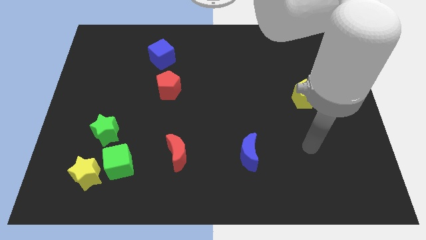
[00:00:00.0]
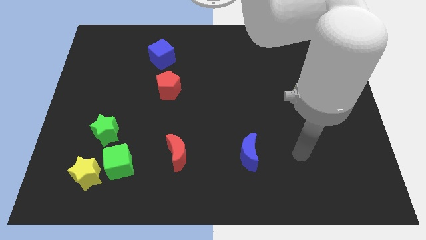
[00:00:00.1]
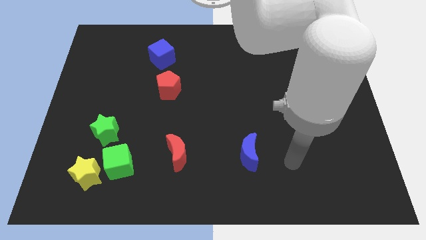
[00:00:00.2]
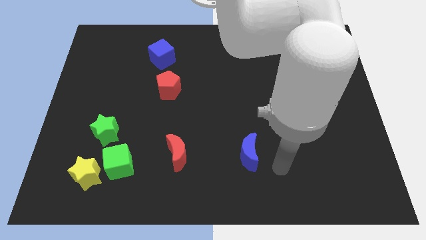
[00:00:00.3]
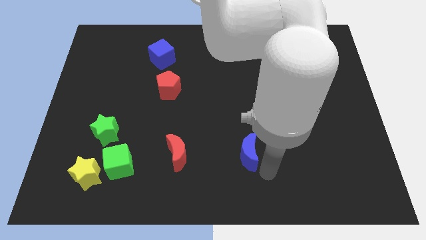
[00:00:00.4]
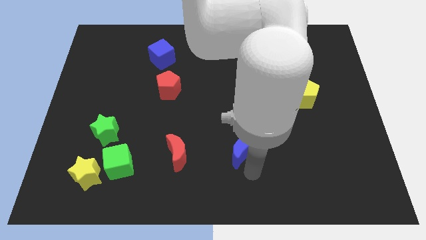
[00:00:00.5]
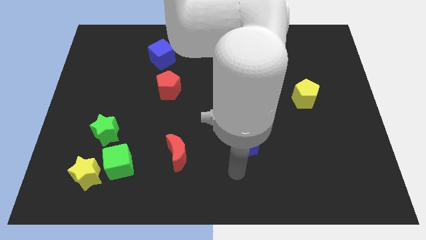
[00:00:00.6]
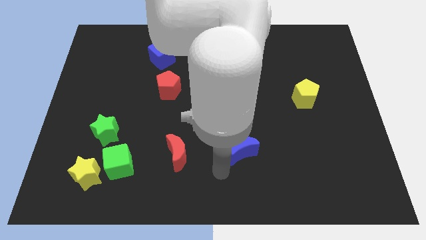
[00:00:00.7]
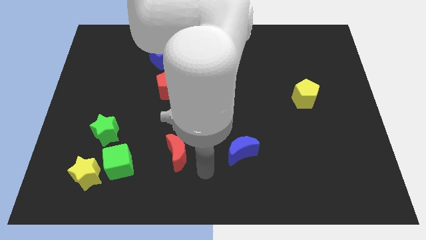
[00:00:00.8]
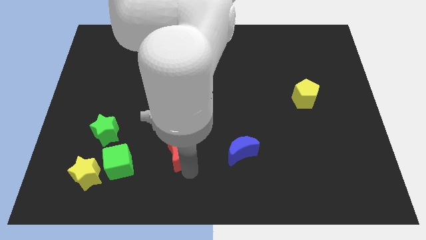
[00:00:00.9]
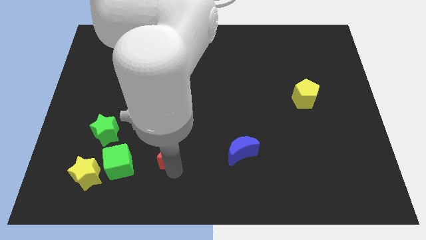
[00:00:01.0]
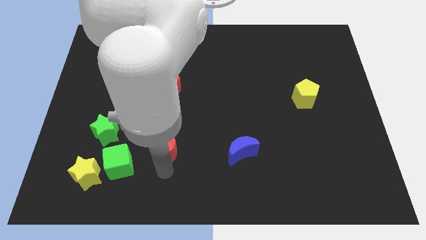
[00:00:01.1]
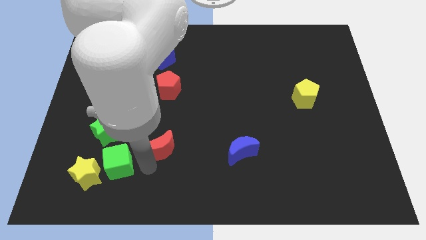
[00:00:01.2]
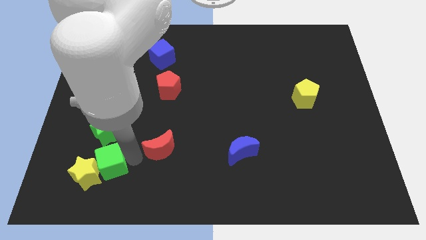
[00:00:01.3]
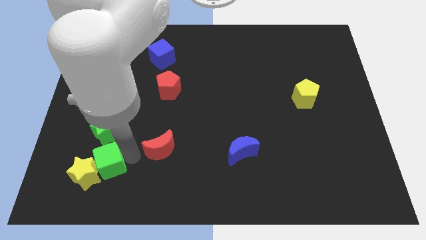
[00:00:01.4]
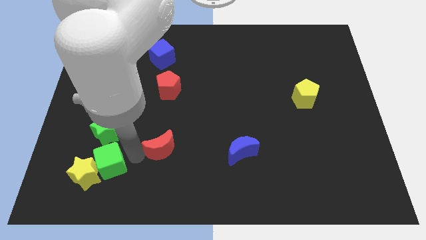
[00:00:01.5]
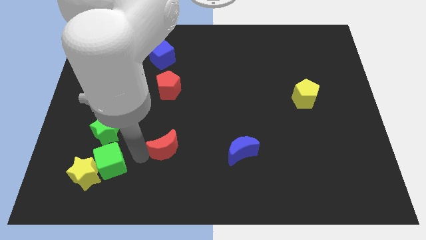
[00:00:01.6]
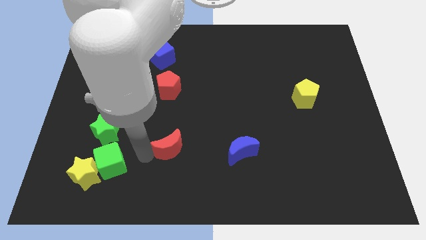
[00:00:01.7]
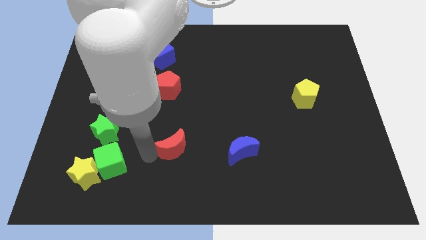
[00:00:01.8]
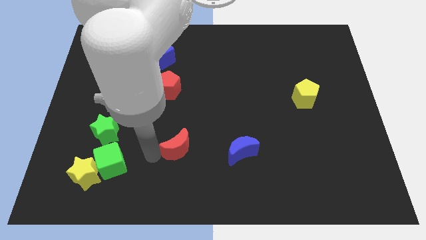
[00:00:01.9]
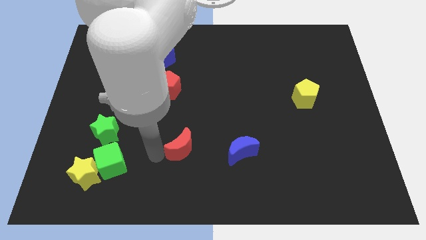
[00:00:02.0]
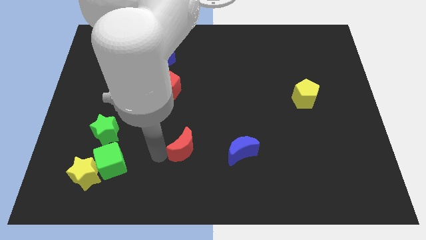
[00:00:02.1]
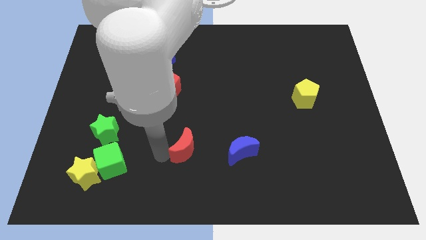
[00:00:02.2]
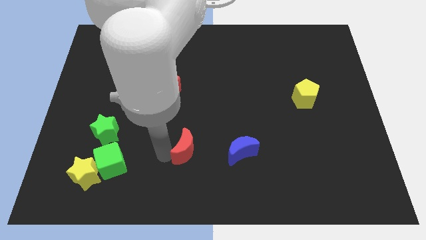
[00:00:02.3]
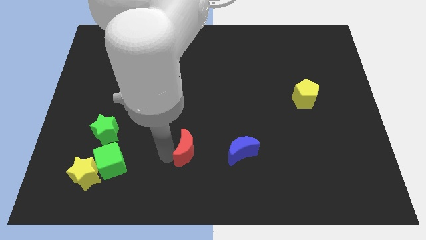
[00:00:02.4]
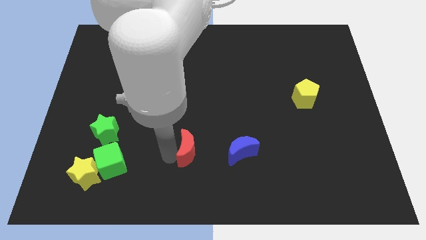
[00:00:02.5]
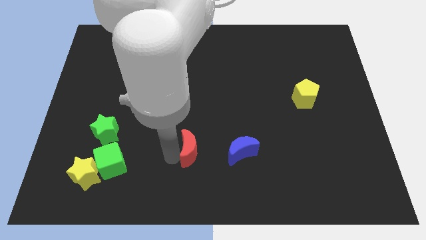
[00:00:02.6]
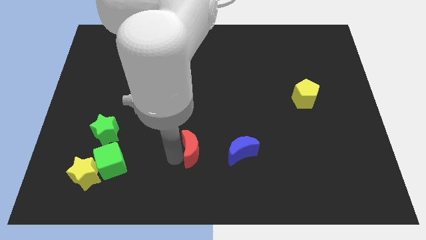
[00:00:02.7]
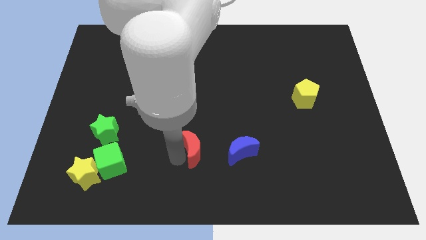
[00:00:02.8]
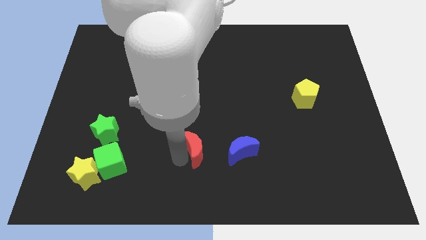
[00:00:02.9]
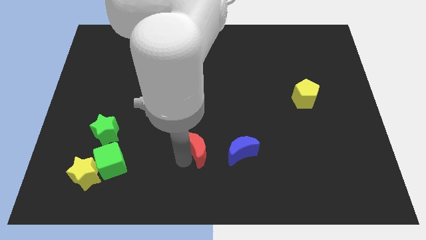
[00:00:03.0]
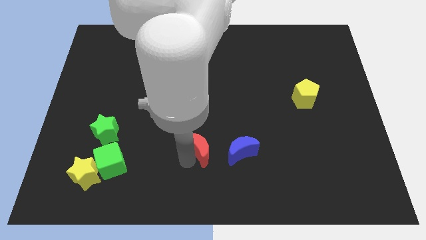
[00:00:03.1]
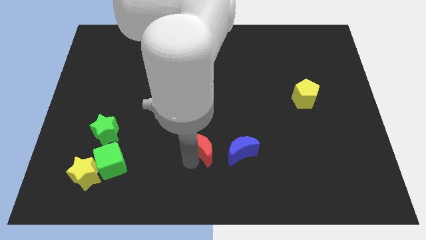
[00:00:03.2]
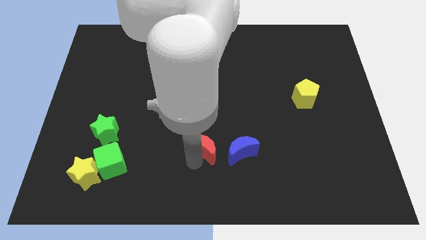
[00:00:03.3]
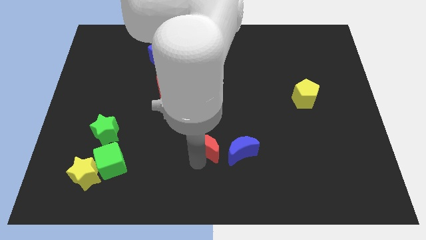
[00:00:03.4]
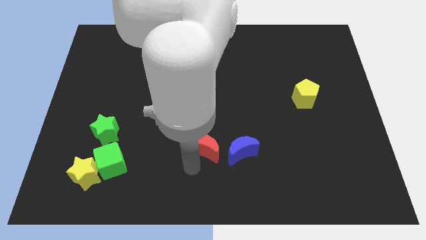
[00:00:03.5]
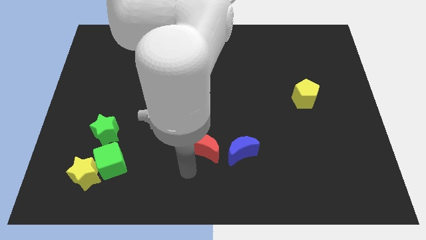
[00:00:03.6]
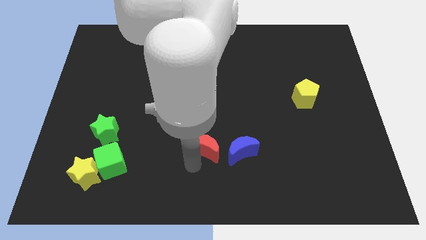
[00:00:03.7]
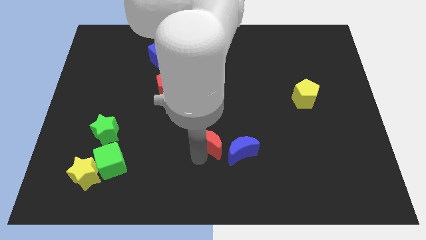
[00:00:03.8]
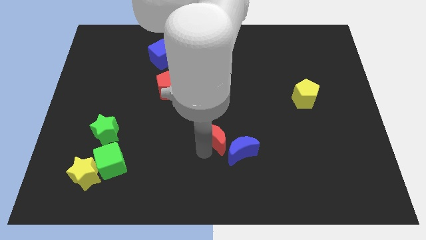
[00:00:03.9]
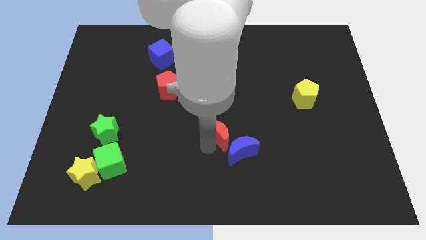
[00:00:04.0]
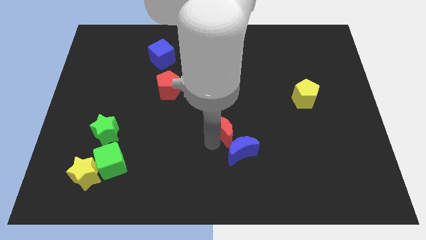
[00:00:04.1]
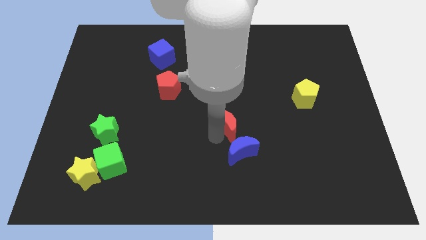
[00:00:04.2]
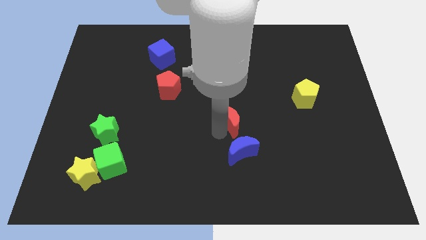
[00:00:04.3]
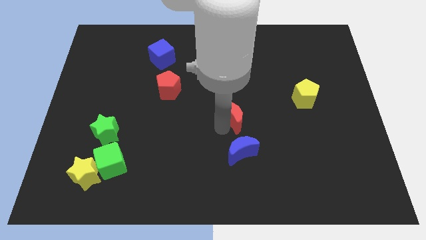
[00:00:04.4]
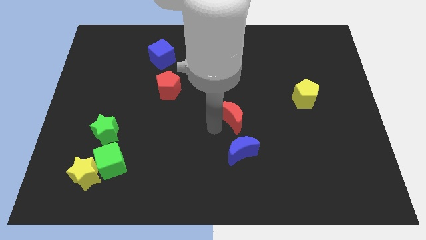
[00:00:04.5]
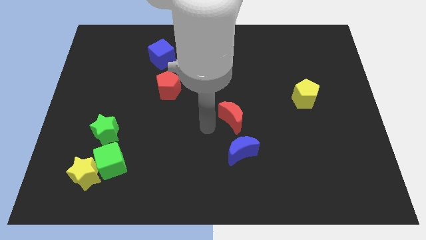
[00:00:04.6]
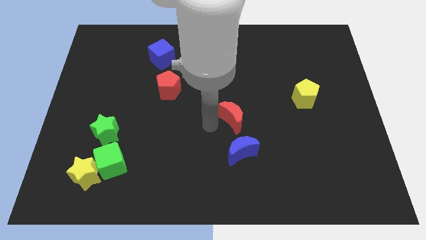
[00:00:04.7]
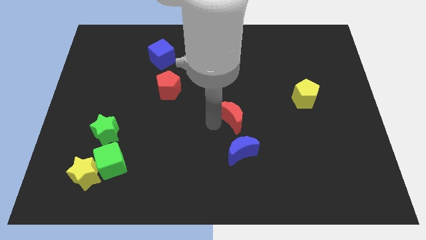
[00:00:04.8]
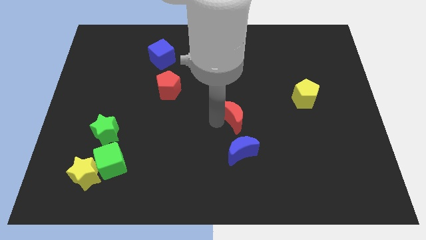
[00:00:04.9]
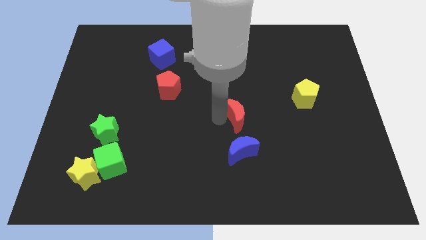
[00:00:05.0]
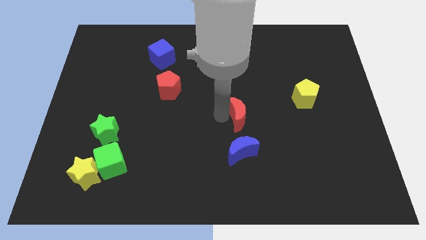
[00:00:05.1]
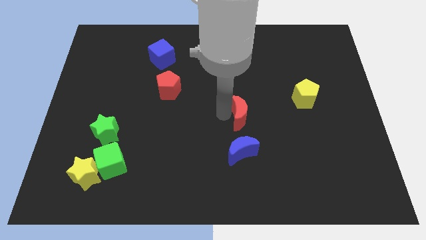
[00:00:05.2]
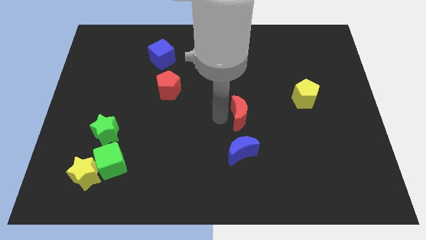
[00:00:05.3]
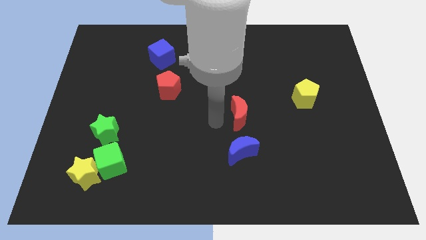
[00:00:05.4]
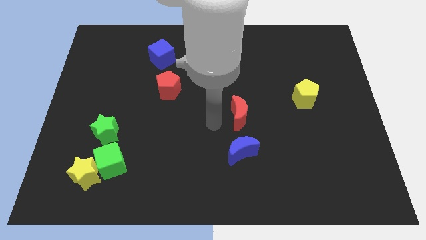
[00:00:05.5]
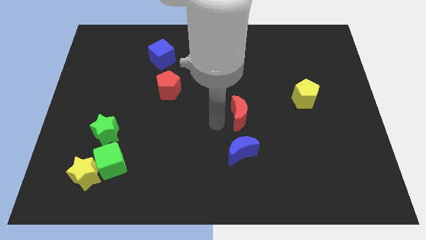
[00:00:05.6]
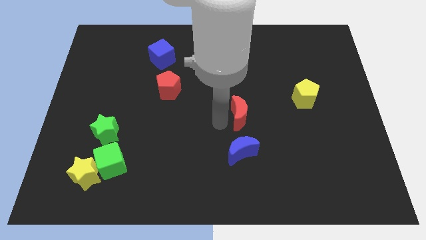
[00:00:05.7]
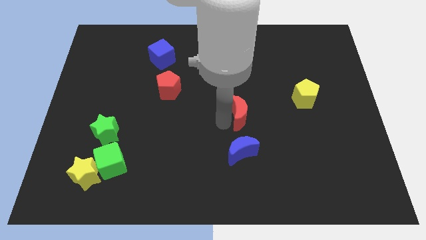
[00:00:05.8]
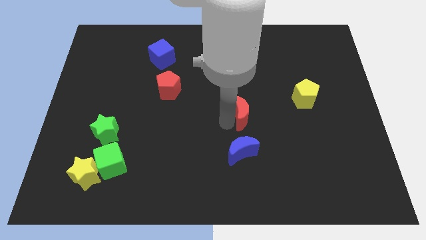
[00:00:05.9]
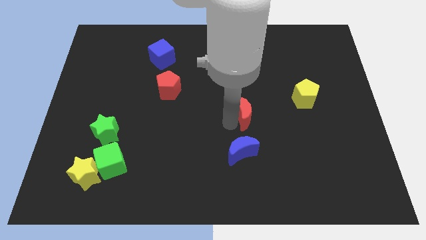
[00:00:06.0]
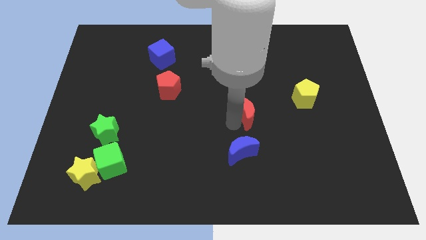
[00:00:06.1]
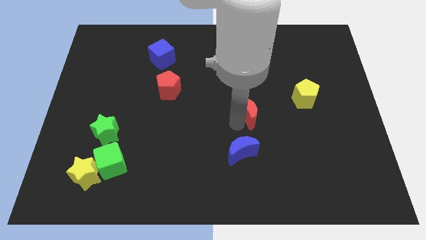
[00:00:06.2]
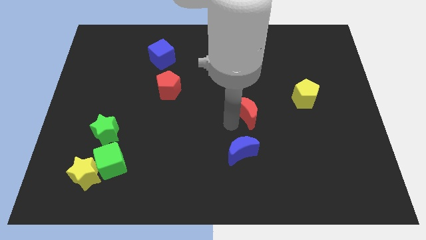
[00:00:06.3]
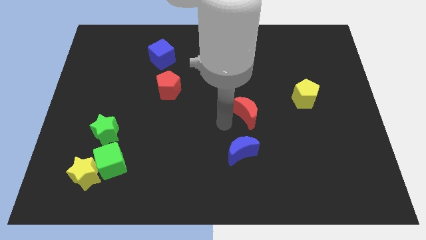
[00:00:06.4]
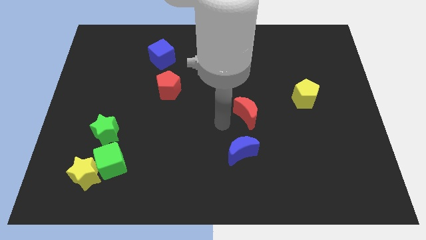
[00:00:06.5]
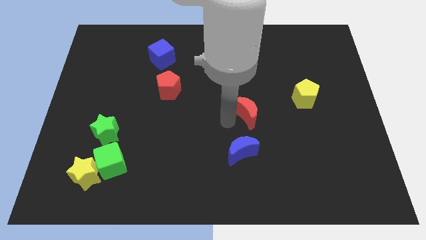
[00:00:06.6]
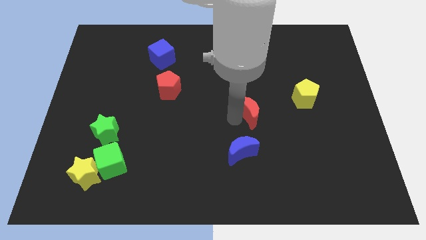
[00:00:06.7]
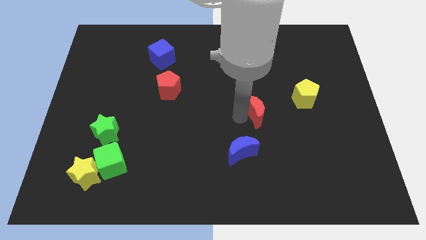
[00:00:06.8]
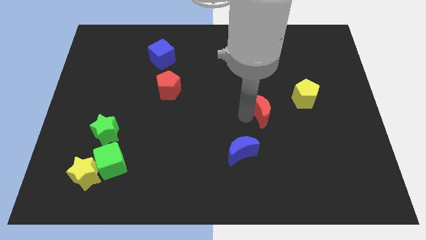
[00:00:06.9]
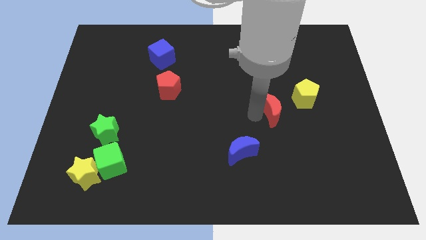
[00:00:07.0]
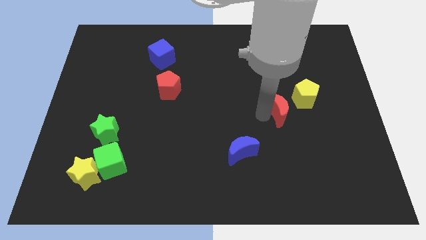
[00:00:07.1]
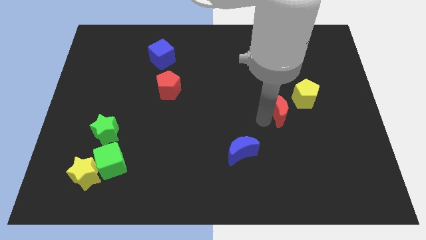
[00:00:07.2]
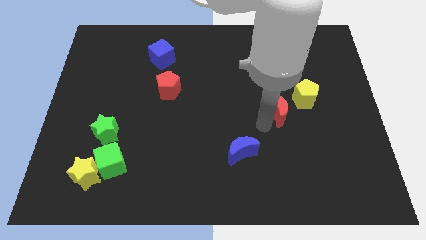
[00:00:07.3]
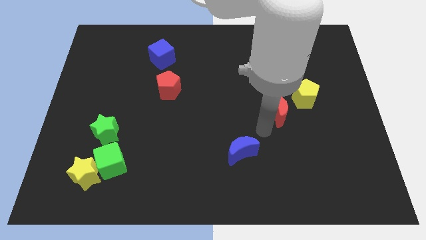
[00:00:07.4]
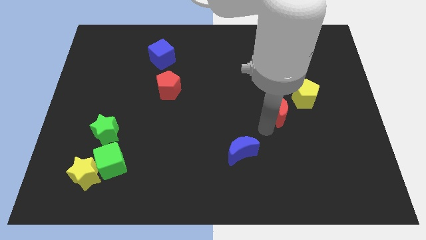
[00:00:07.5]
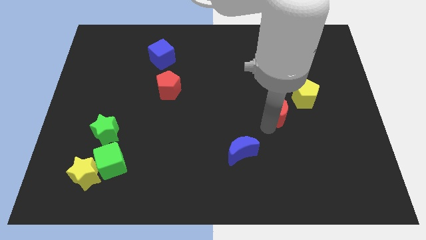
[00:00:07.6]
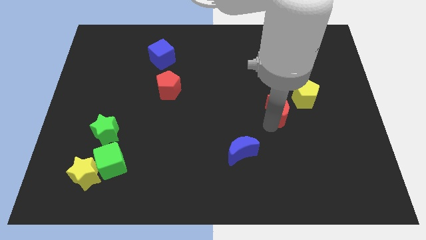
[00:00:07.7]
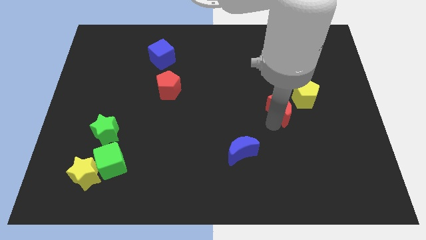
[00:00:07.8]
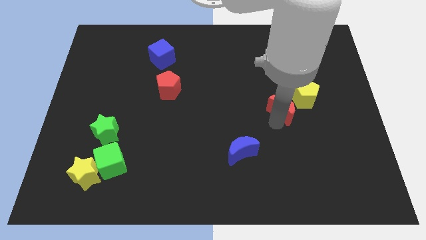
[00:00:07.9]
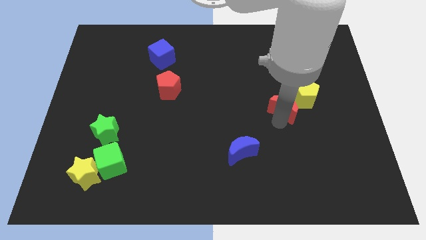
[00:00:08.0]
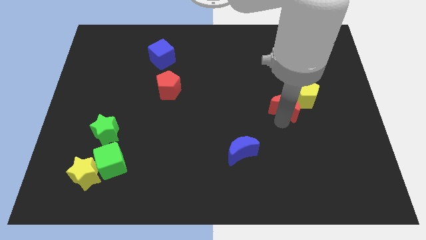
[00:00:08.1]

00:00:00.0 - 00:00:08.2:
move the red moon next to the yellow pentagon

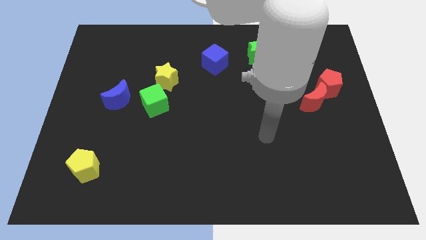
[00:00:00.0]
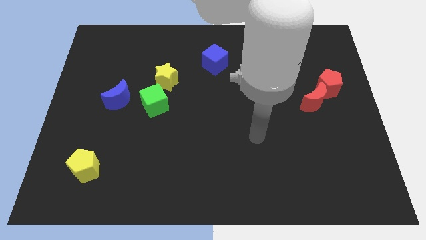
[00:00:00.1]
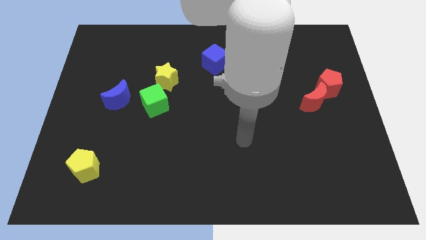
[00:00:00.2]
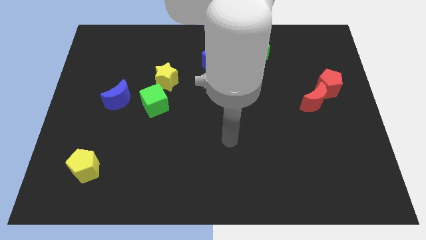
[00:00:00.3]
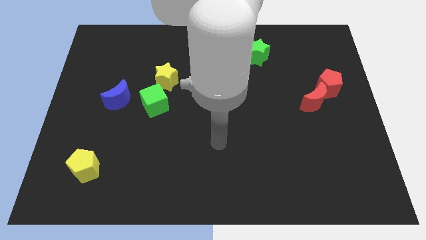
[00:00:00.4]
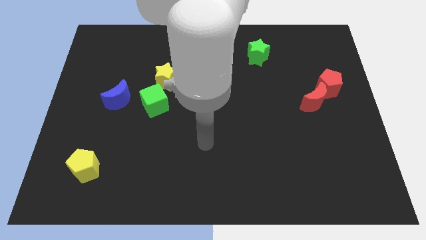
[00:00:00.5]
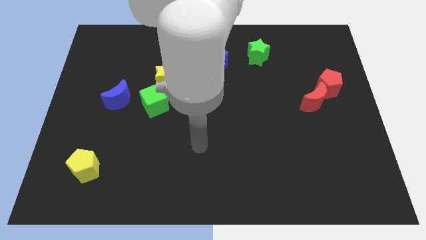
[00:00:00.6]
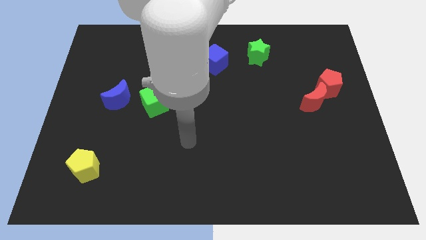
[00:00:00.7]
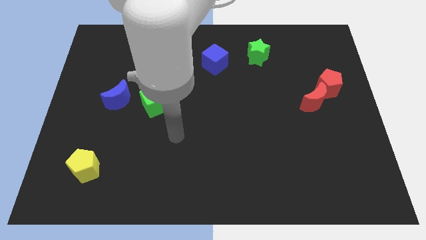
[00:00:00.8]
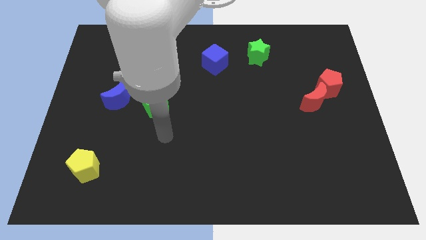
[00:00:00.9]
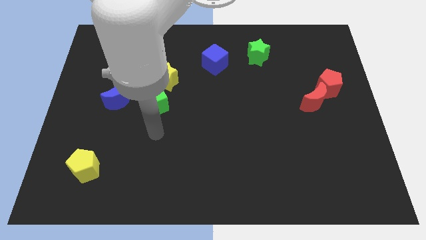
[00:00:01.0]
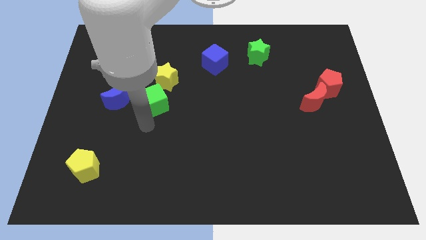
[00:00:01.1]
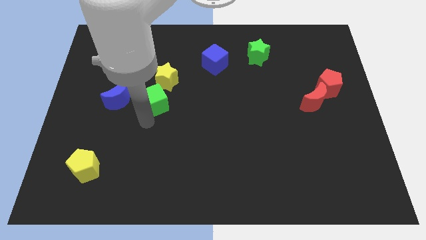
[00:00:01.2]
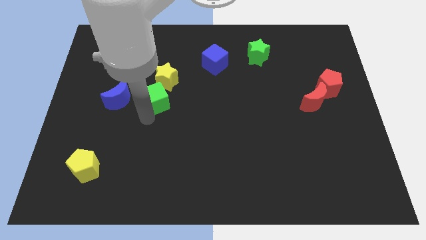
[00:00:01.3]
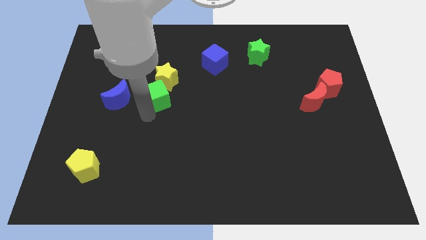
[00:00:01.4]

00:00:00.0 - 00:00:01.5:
push the green cube next to the yellow star
